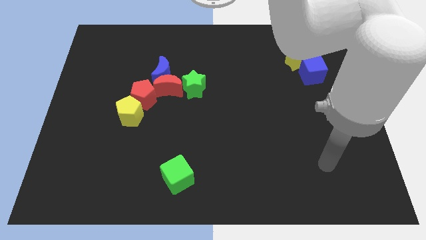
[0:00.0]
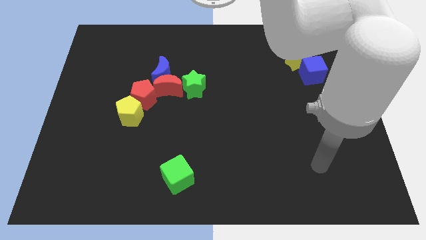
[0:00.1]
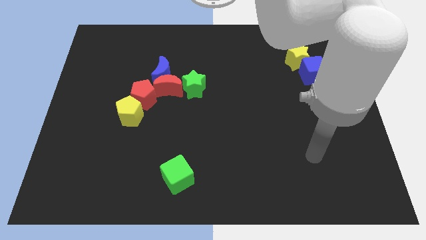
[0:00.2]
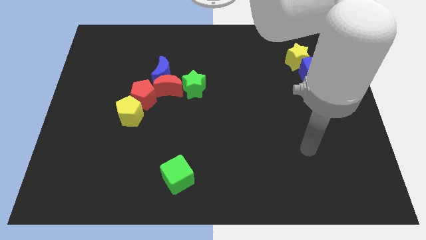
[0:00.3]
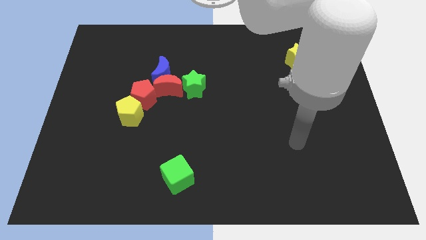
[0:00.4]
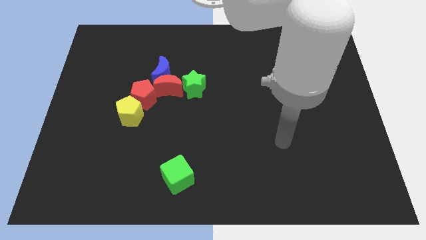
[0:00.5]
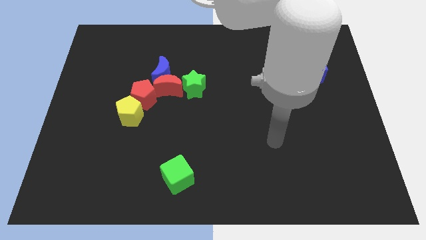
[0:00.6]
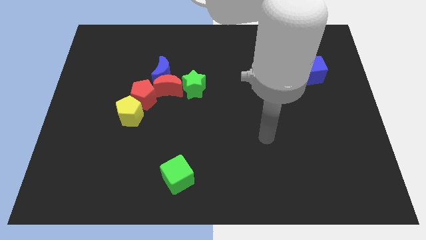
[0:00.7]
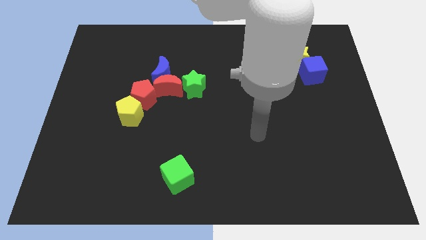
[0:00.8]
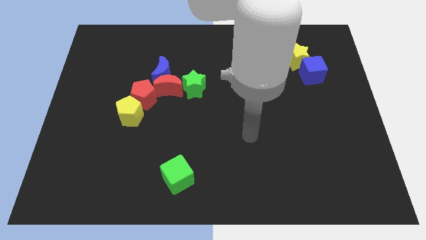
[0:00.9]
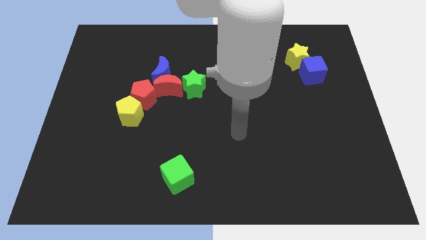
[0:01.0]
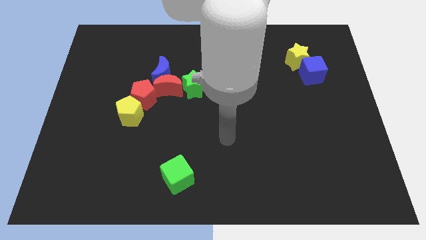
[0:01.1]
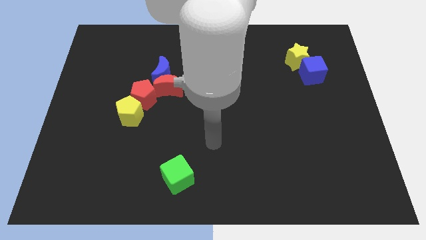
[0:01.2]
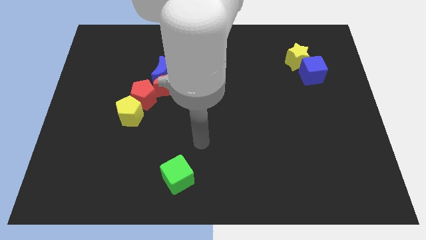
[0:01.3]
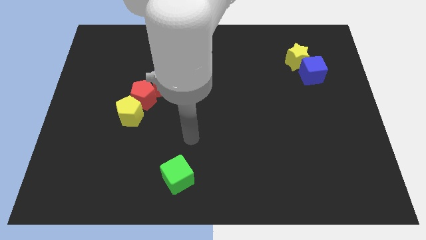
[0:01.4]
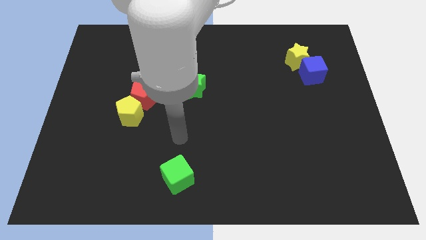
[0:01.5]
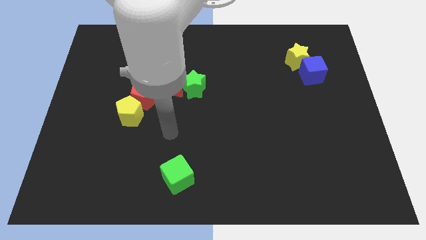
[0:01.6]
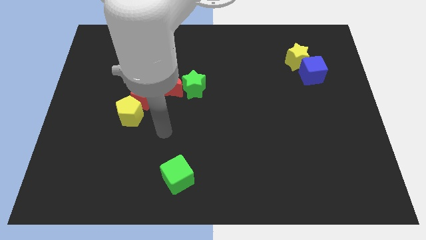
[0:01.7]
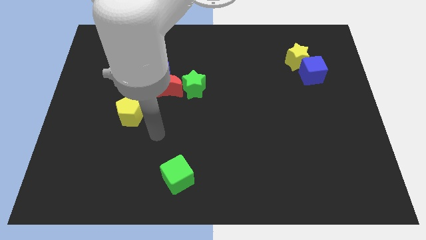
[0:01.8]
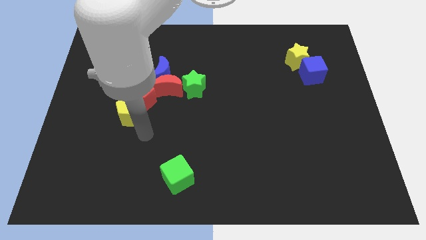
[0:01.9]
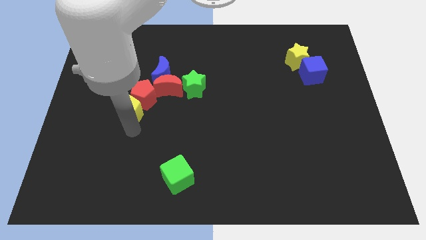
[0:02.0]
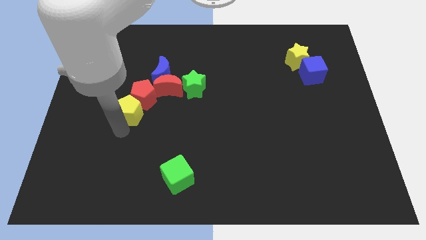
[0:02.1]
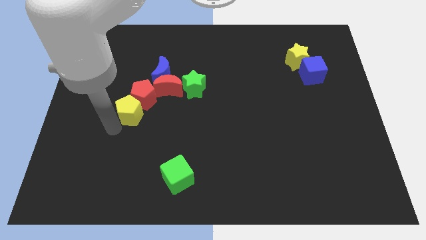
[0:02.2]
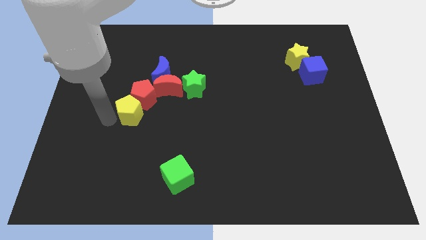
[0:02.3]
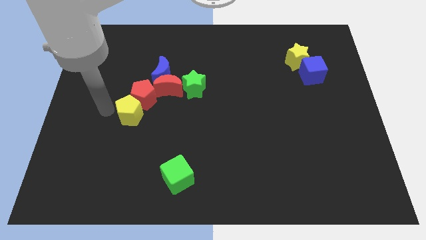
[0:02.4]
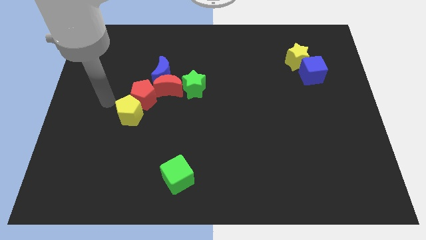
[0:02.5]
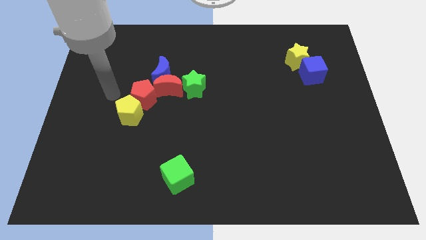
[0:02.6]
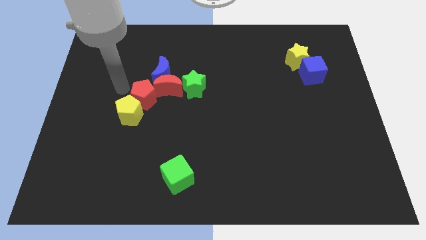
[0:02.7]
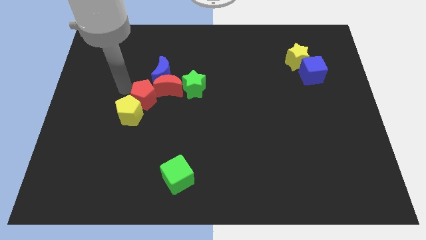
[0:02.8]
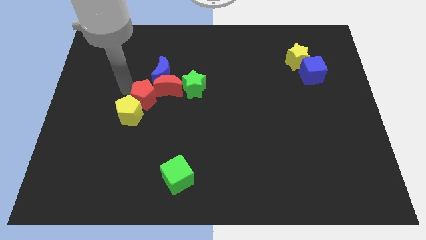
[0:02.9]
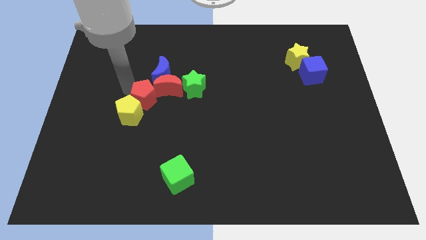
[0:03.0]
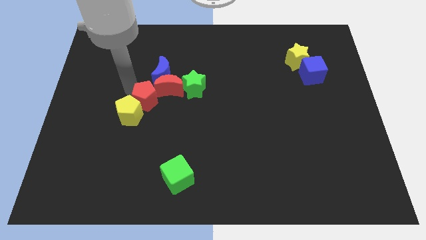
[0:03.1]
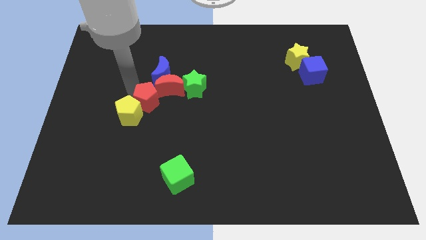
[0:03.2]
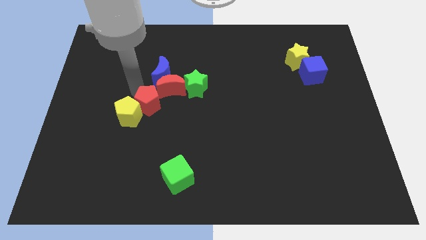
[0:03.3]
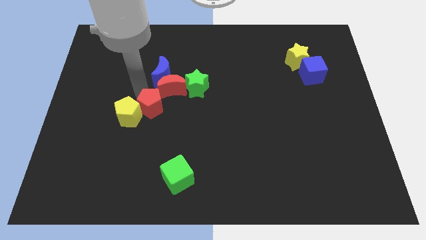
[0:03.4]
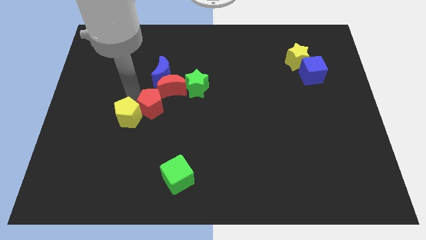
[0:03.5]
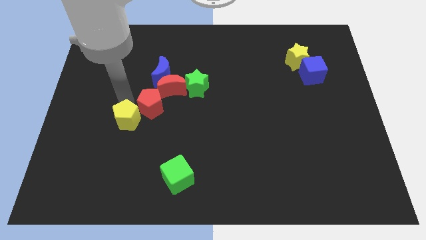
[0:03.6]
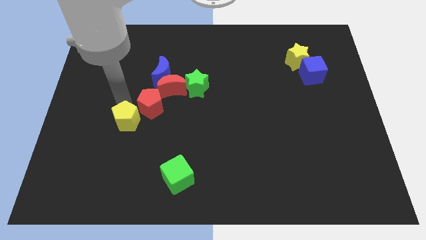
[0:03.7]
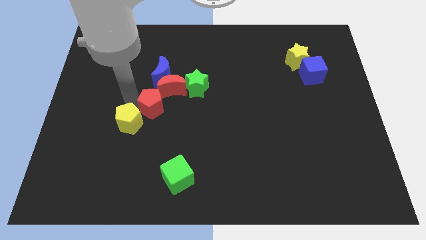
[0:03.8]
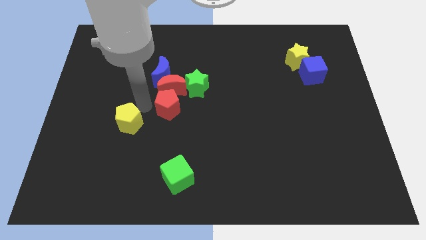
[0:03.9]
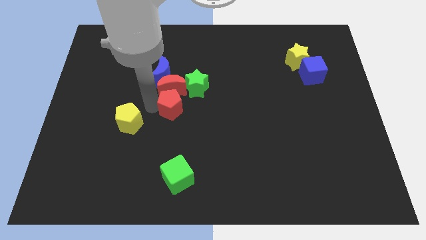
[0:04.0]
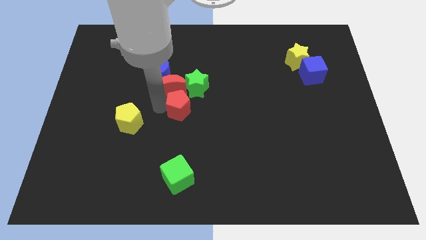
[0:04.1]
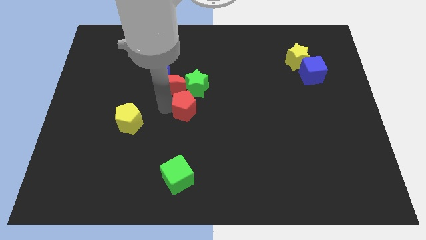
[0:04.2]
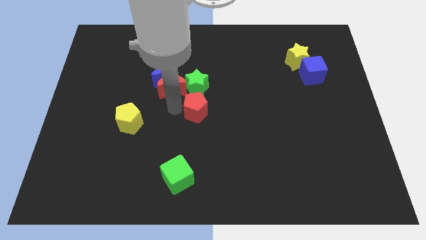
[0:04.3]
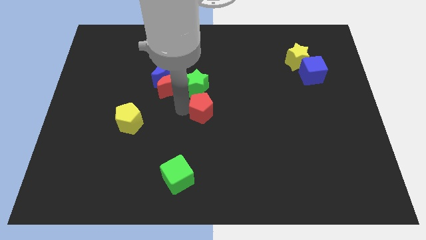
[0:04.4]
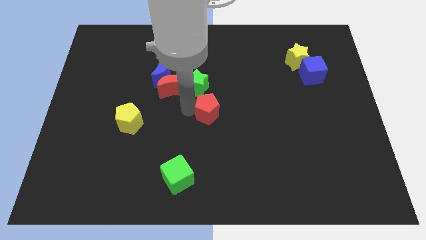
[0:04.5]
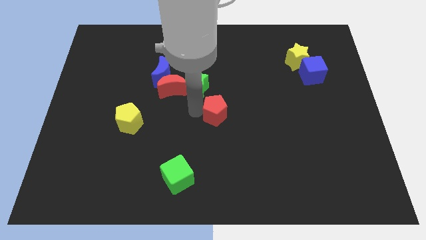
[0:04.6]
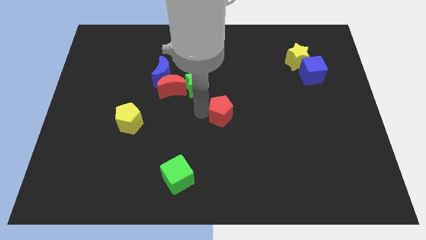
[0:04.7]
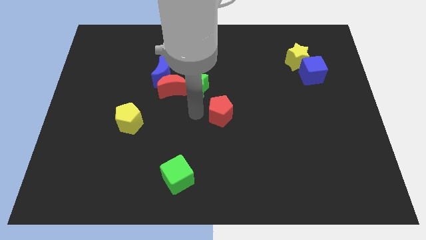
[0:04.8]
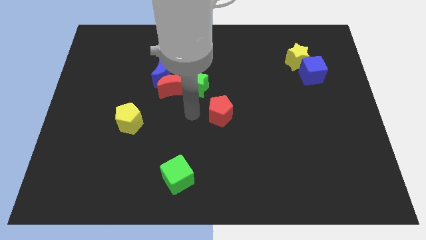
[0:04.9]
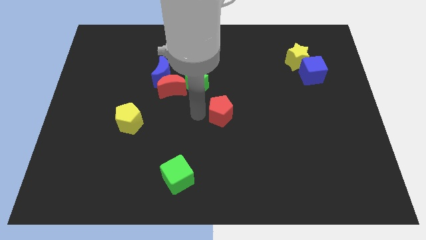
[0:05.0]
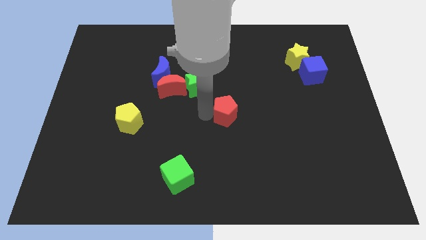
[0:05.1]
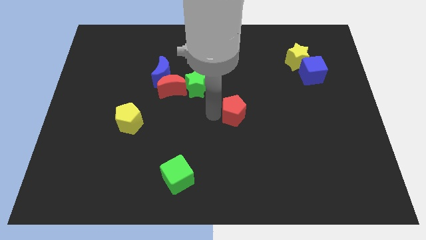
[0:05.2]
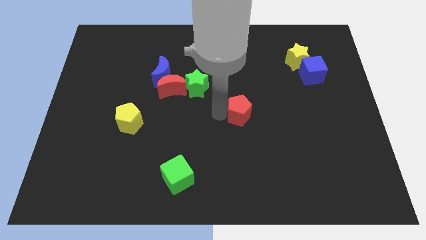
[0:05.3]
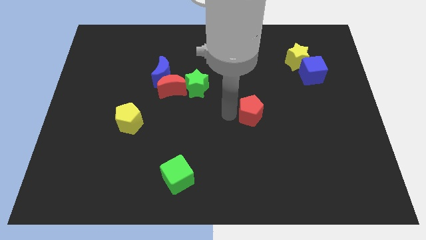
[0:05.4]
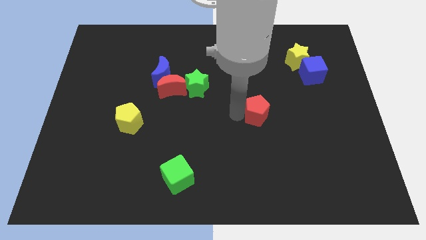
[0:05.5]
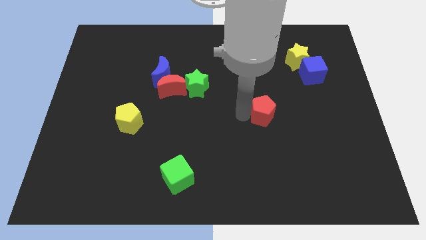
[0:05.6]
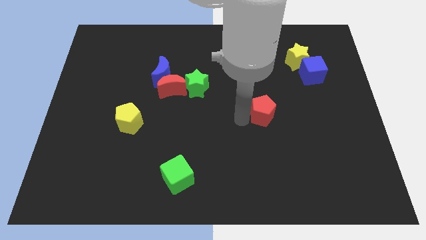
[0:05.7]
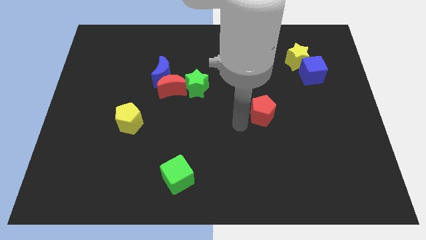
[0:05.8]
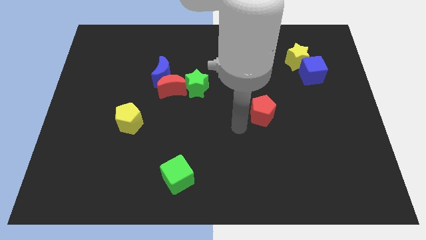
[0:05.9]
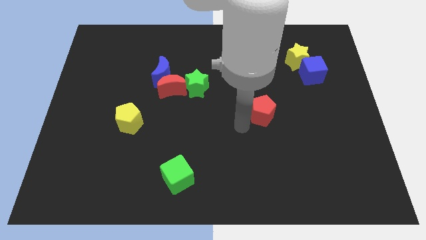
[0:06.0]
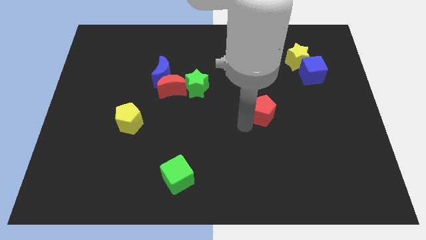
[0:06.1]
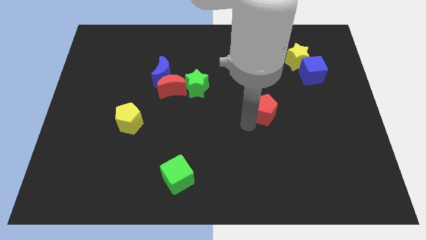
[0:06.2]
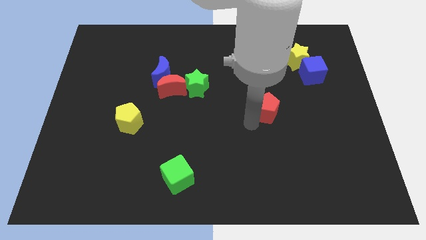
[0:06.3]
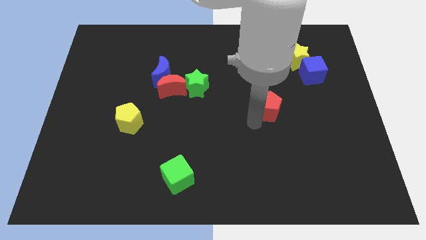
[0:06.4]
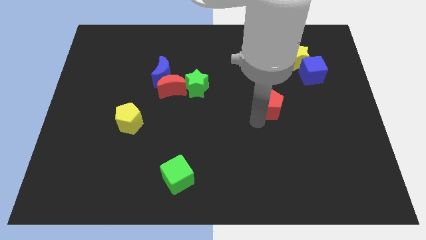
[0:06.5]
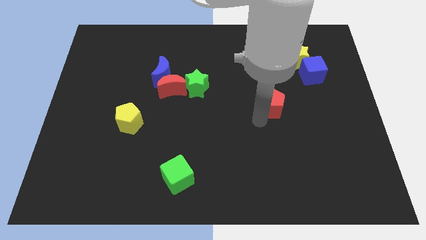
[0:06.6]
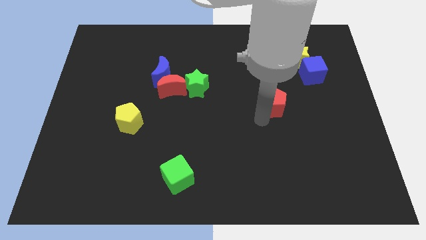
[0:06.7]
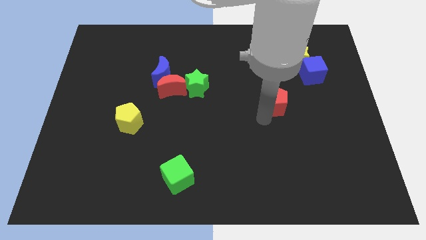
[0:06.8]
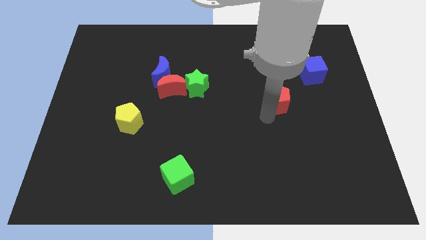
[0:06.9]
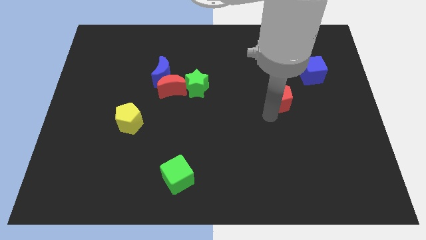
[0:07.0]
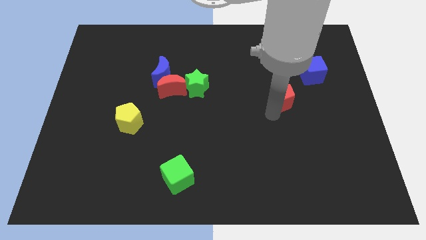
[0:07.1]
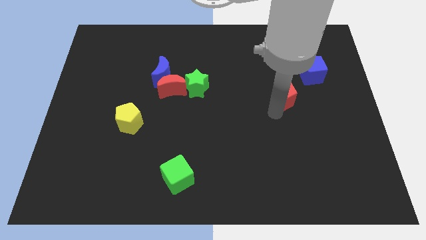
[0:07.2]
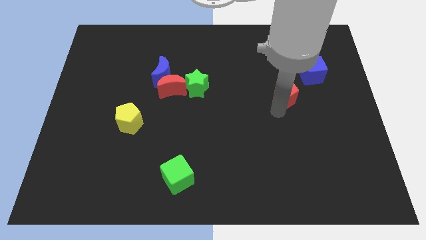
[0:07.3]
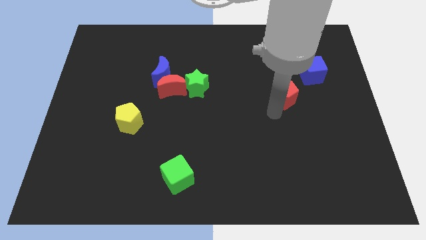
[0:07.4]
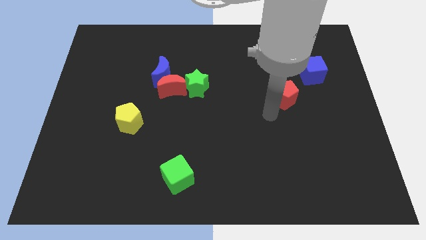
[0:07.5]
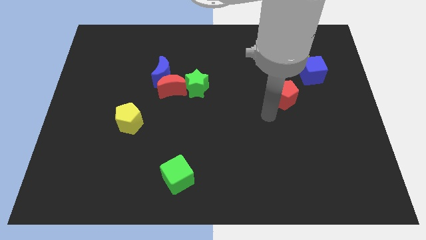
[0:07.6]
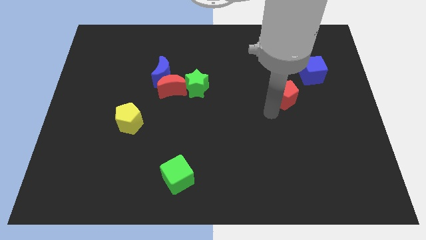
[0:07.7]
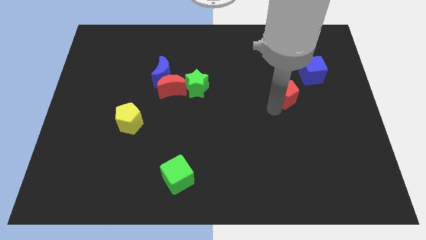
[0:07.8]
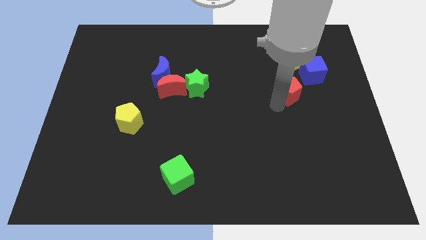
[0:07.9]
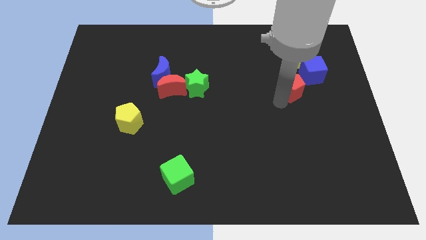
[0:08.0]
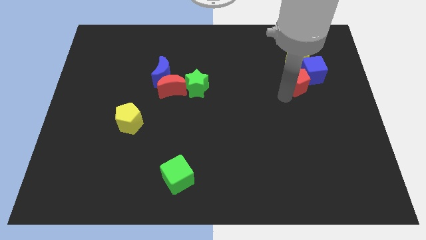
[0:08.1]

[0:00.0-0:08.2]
put the red pentagon close to the blue cube
